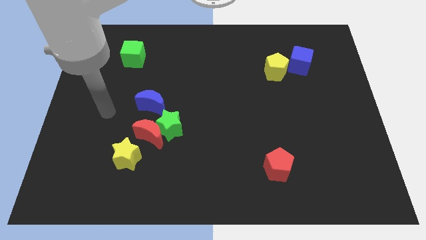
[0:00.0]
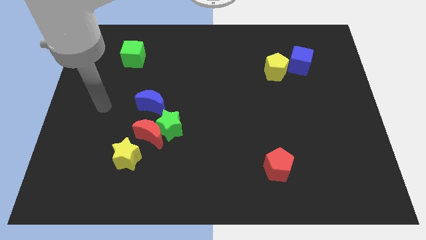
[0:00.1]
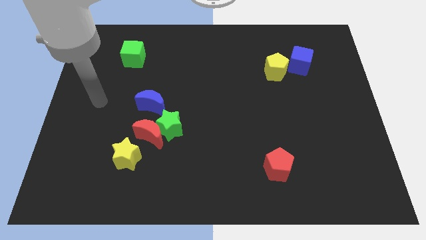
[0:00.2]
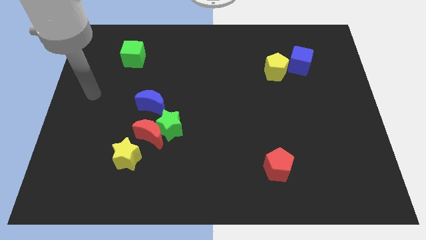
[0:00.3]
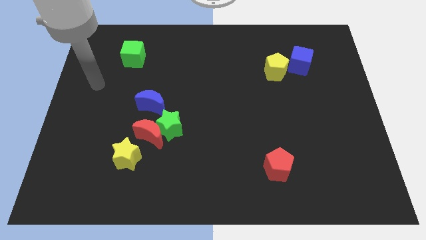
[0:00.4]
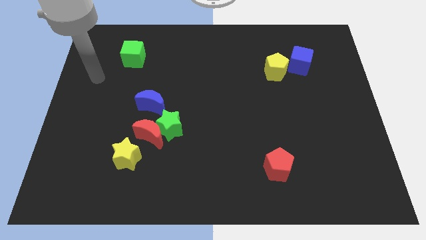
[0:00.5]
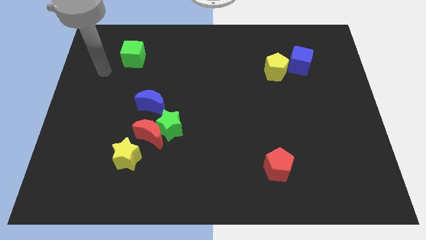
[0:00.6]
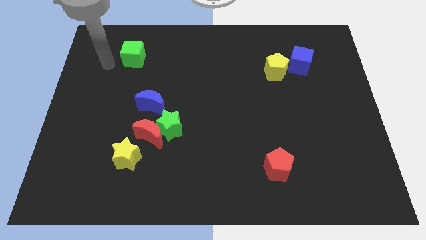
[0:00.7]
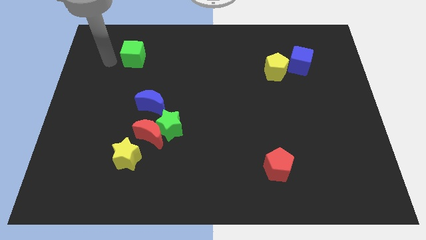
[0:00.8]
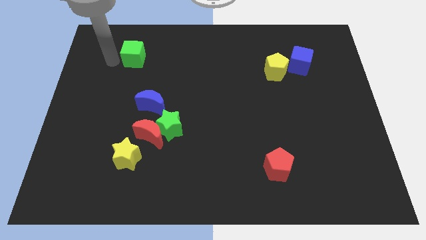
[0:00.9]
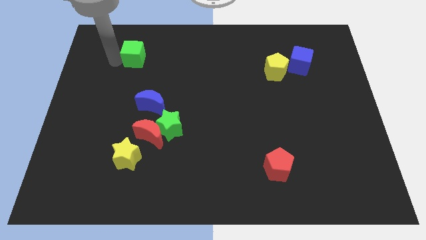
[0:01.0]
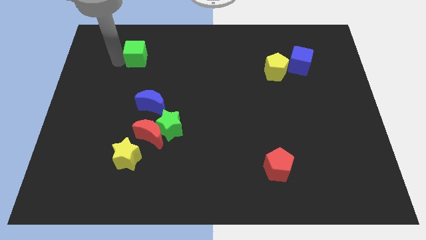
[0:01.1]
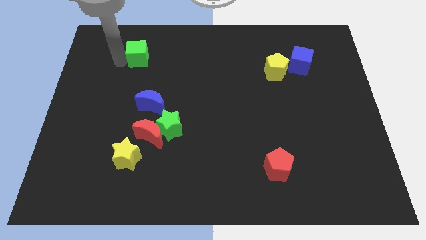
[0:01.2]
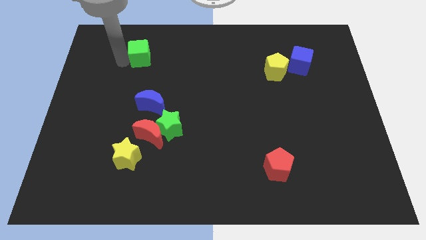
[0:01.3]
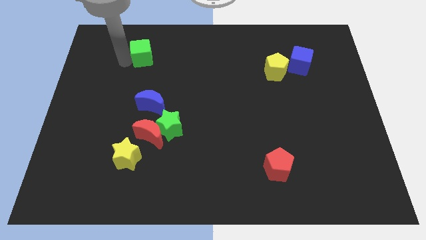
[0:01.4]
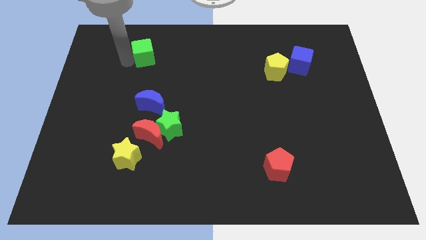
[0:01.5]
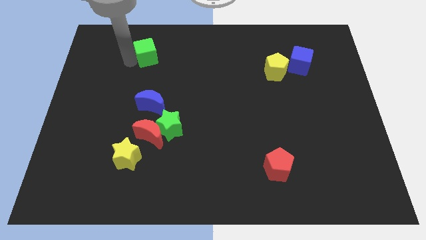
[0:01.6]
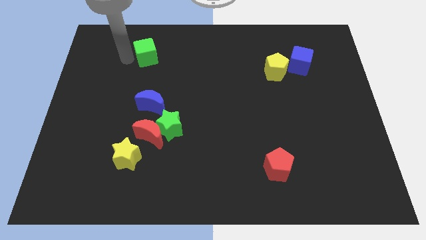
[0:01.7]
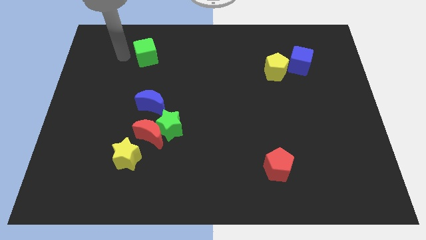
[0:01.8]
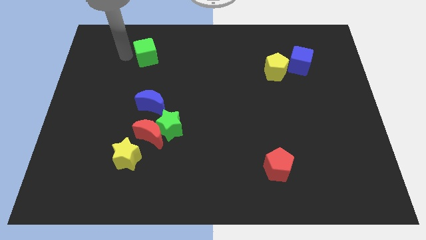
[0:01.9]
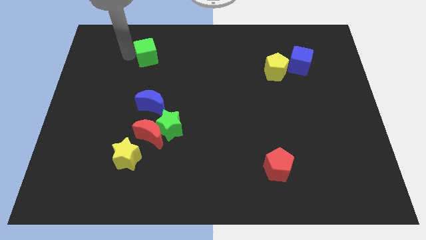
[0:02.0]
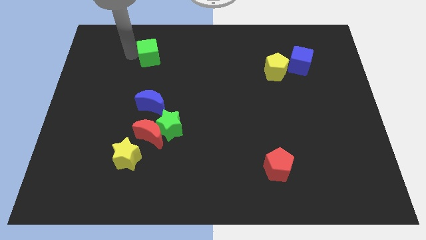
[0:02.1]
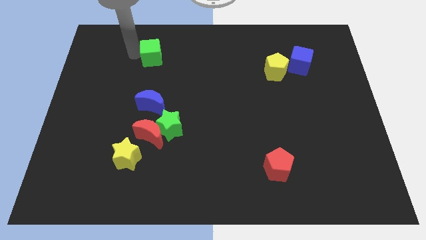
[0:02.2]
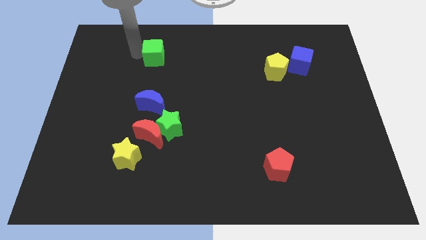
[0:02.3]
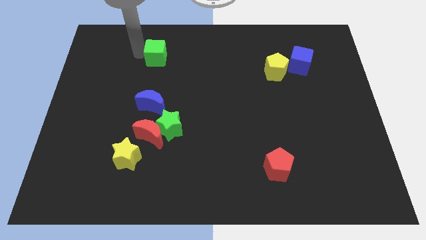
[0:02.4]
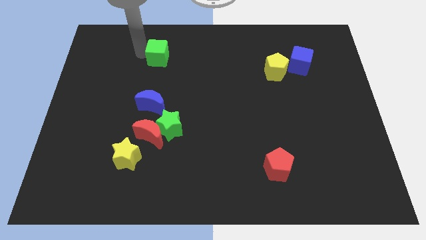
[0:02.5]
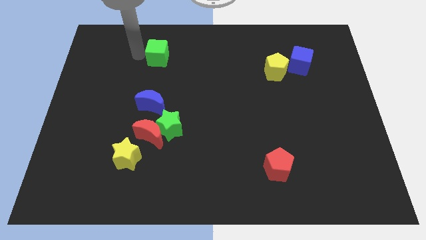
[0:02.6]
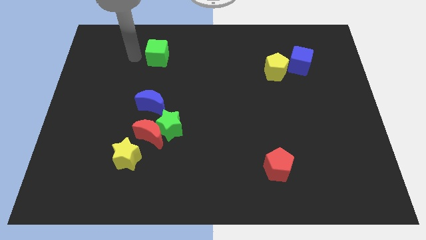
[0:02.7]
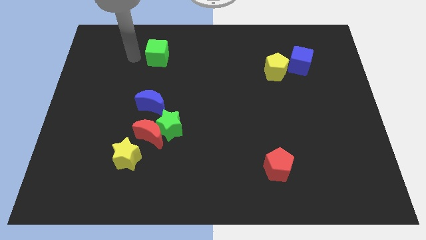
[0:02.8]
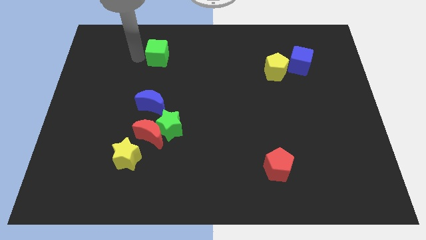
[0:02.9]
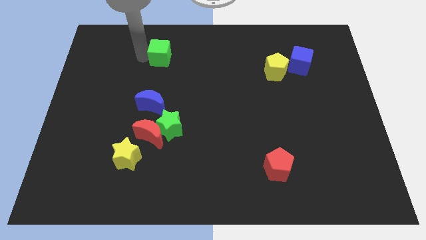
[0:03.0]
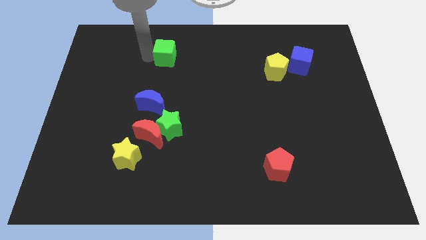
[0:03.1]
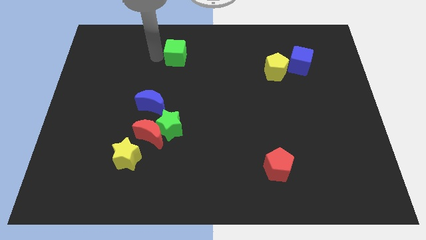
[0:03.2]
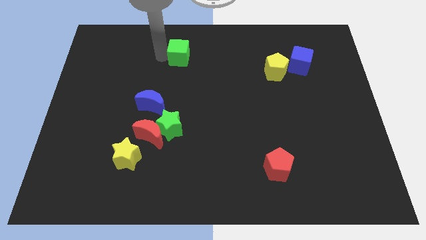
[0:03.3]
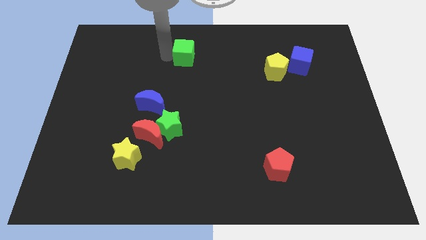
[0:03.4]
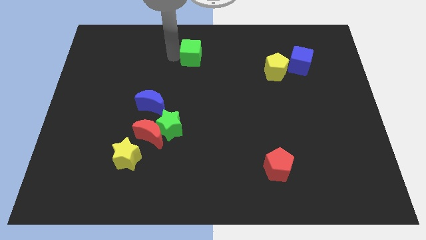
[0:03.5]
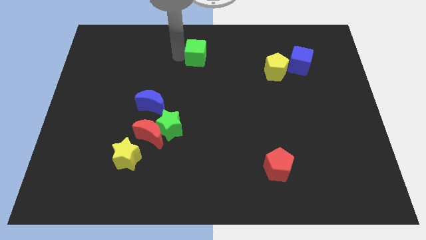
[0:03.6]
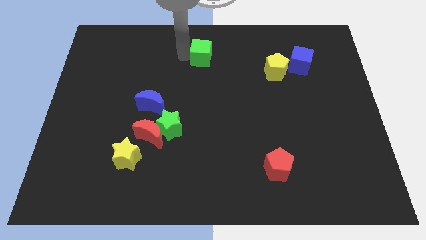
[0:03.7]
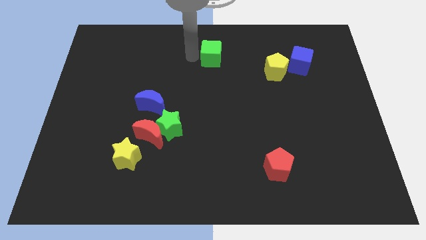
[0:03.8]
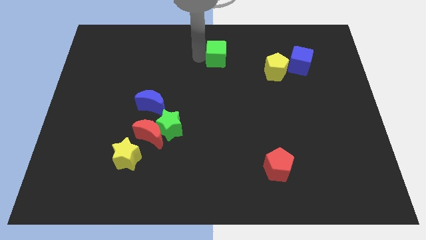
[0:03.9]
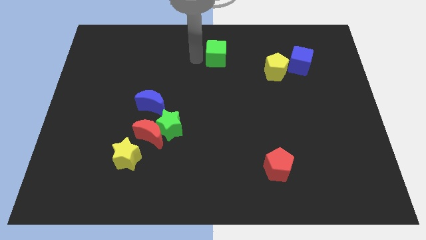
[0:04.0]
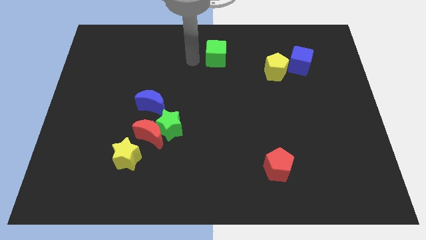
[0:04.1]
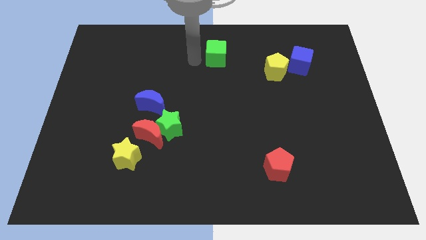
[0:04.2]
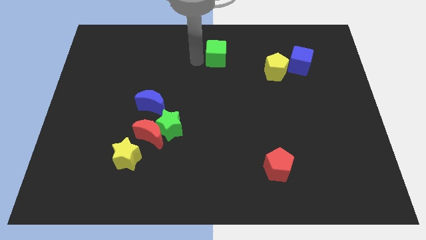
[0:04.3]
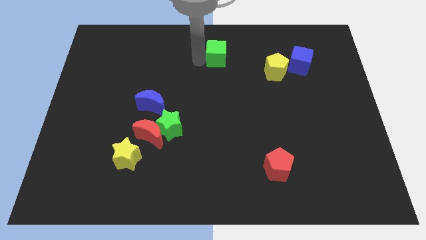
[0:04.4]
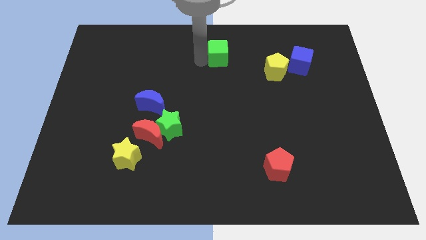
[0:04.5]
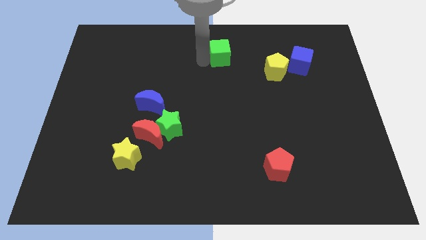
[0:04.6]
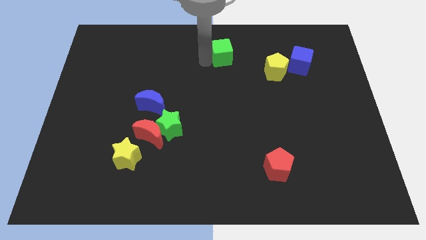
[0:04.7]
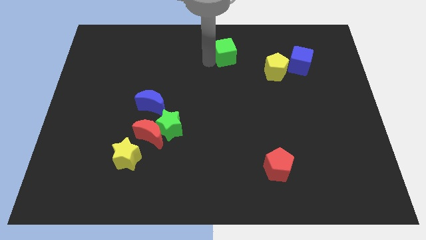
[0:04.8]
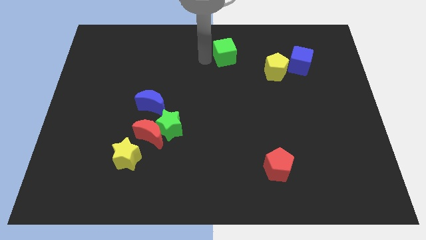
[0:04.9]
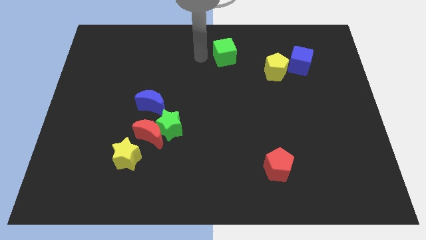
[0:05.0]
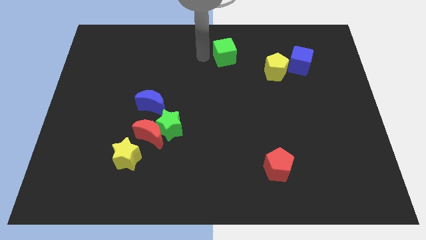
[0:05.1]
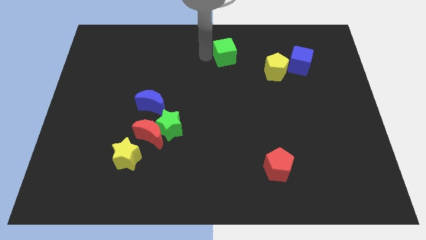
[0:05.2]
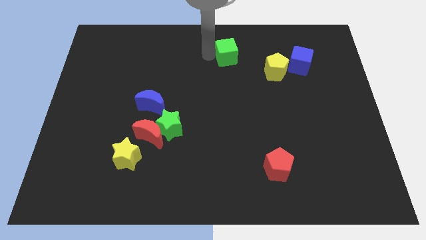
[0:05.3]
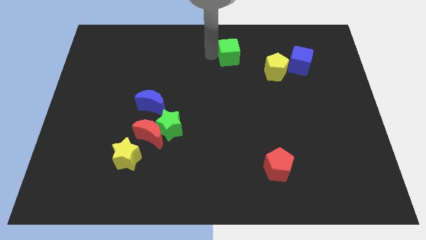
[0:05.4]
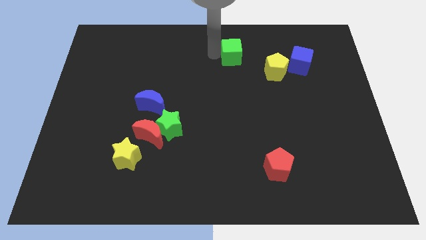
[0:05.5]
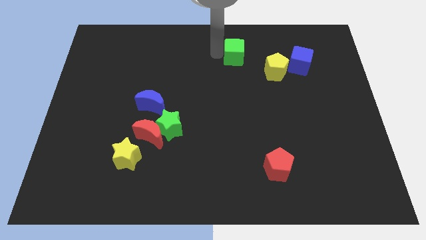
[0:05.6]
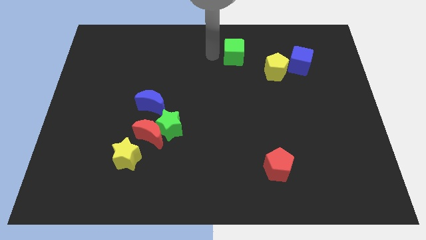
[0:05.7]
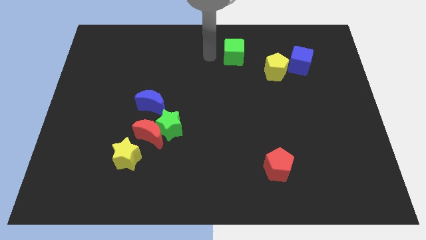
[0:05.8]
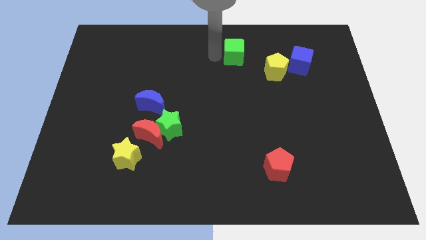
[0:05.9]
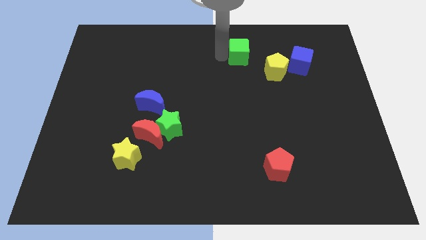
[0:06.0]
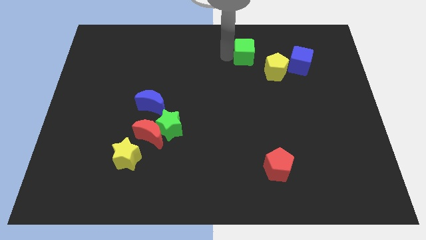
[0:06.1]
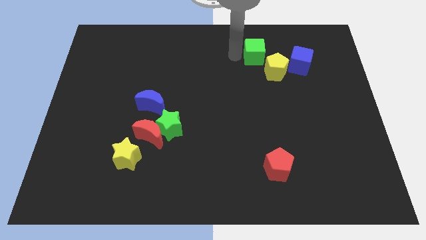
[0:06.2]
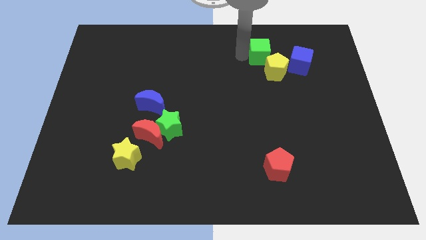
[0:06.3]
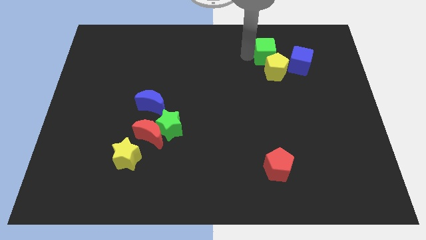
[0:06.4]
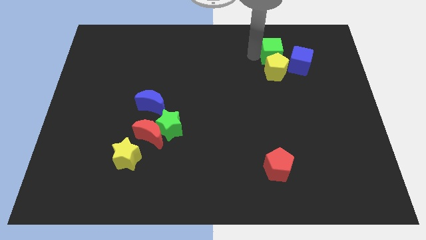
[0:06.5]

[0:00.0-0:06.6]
put the green cube to the top right of the yellow pentagon
